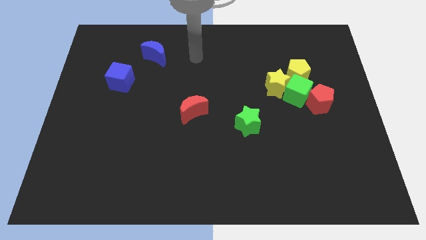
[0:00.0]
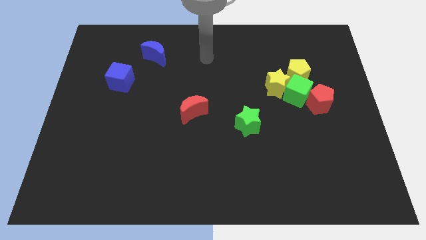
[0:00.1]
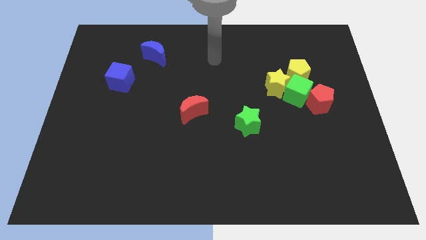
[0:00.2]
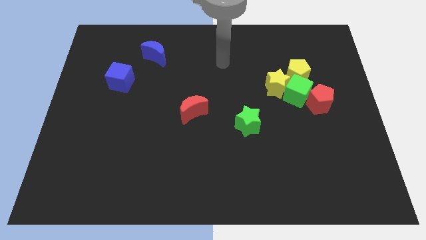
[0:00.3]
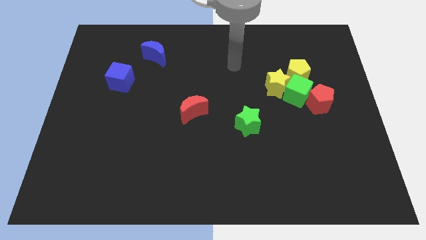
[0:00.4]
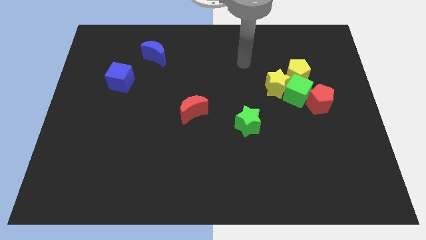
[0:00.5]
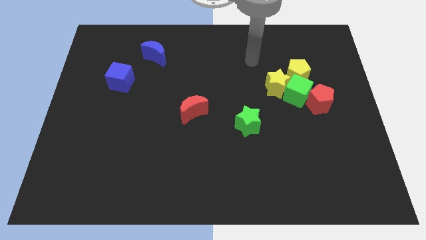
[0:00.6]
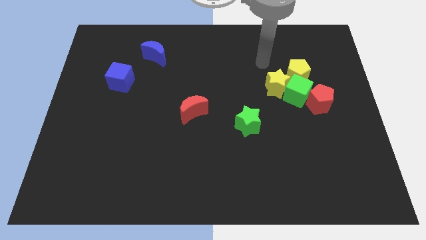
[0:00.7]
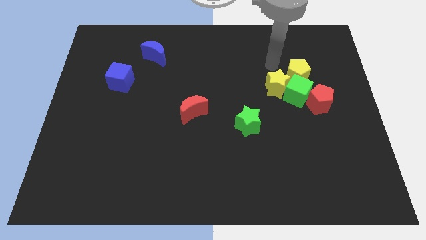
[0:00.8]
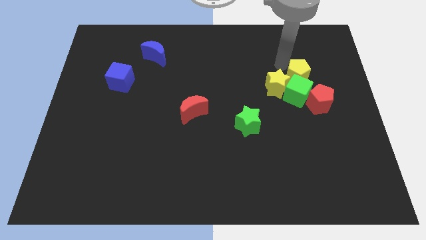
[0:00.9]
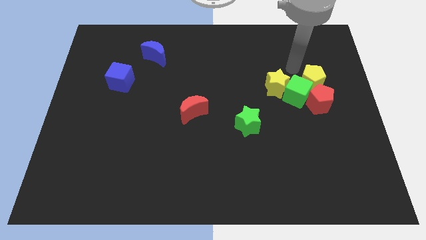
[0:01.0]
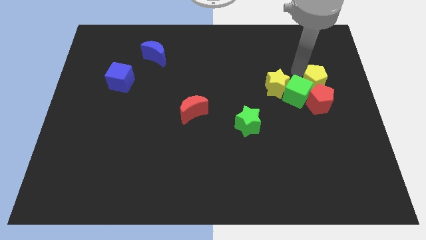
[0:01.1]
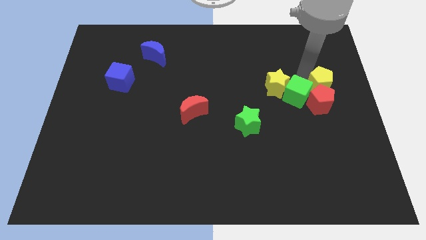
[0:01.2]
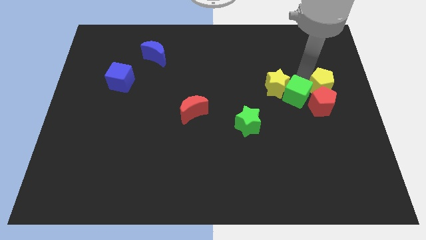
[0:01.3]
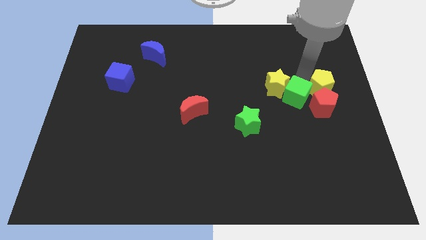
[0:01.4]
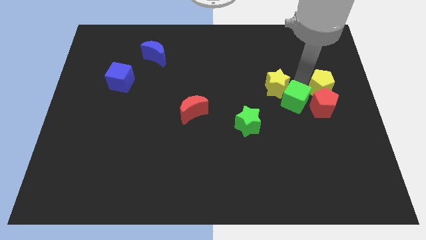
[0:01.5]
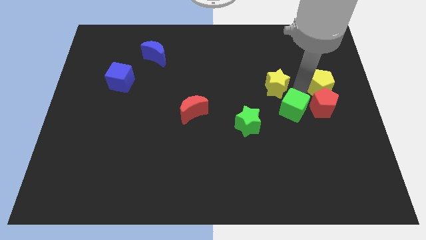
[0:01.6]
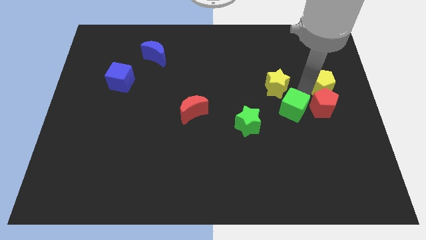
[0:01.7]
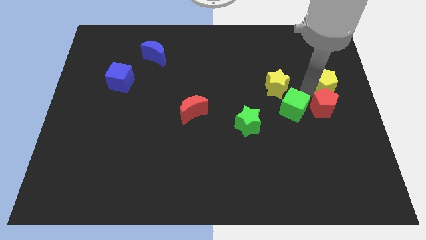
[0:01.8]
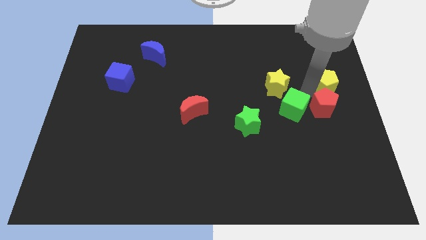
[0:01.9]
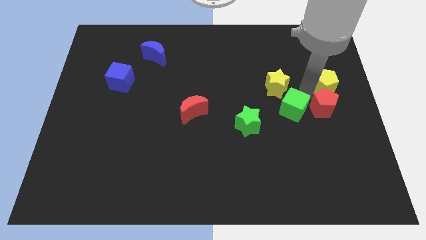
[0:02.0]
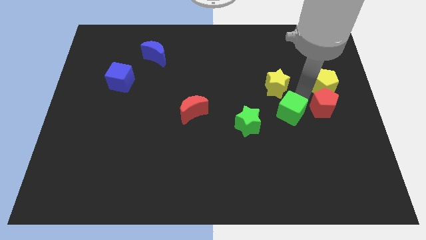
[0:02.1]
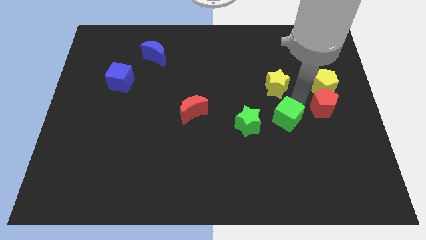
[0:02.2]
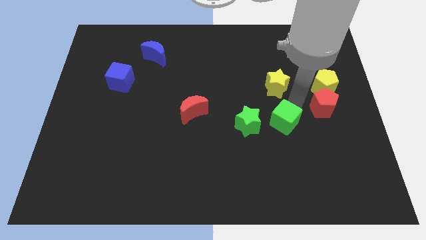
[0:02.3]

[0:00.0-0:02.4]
pull the green cube apart from the group

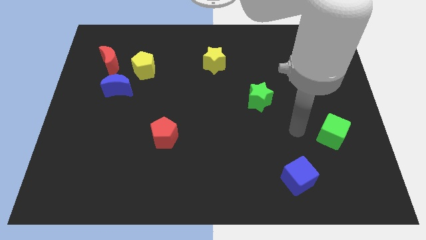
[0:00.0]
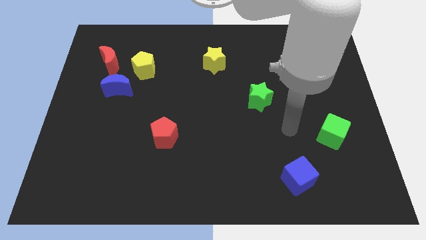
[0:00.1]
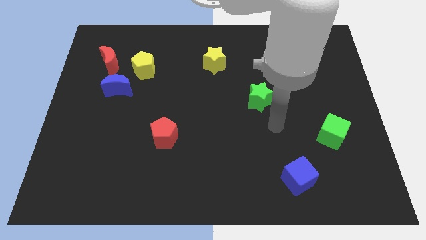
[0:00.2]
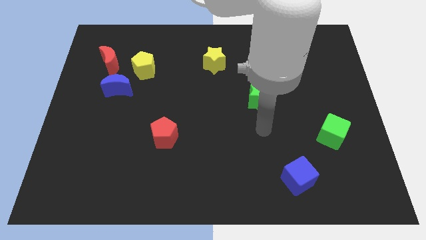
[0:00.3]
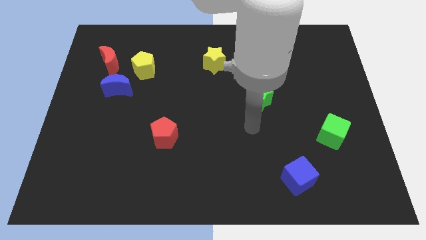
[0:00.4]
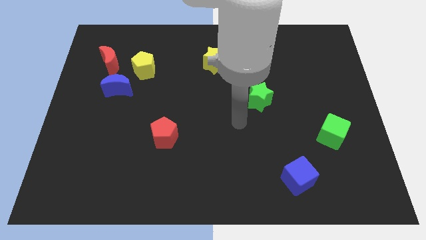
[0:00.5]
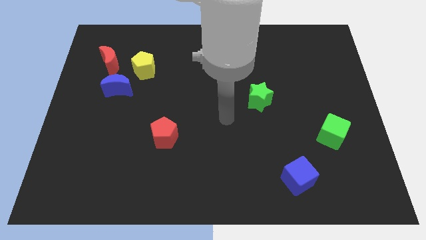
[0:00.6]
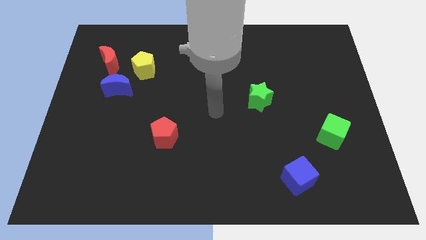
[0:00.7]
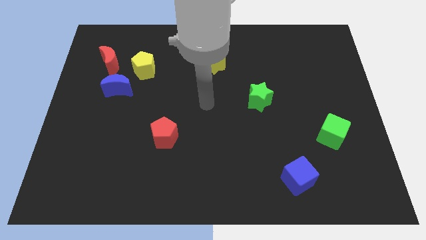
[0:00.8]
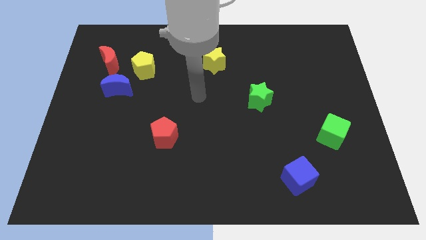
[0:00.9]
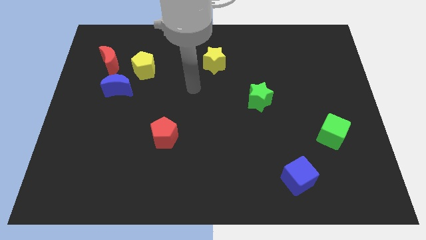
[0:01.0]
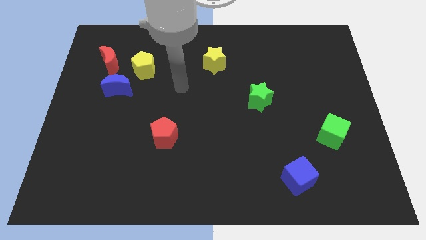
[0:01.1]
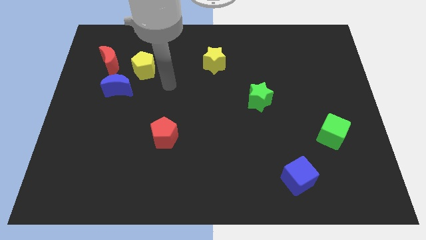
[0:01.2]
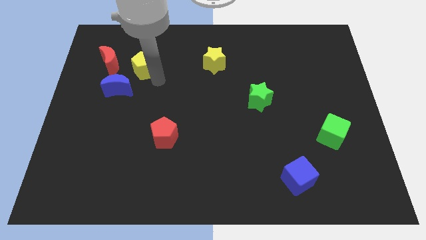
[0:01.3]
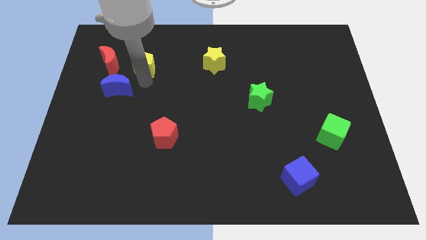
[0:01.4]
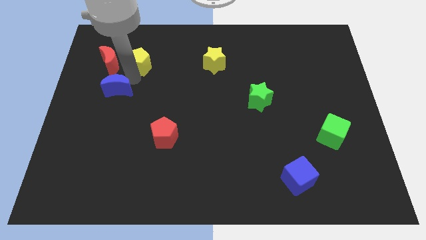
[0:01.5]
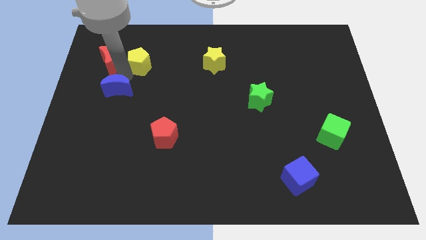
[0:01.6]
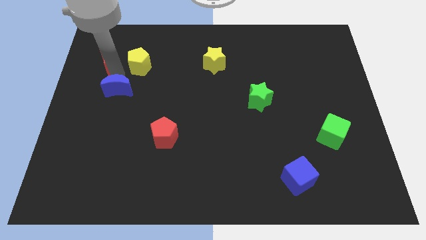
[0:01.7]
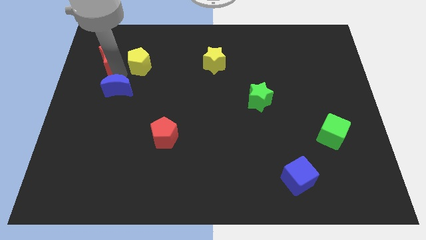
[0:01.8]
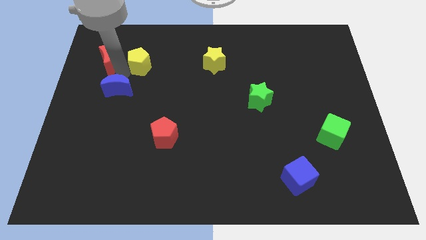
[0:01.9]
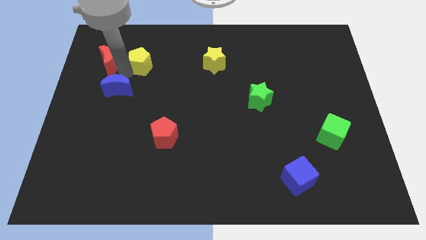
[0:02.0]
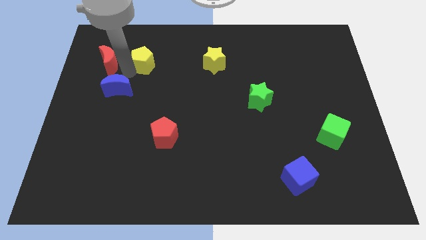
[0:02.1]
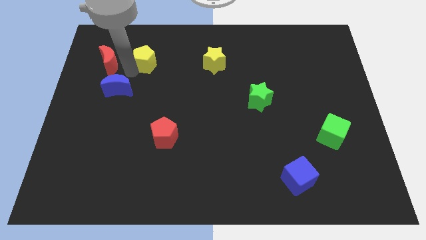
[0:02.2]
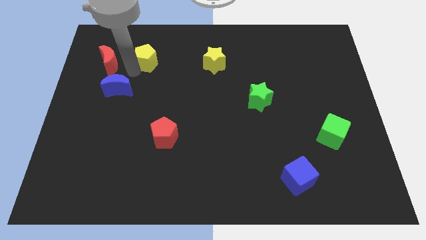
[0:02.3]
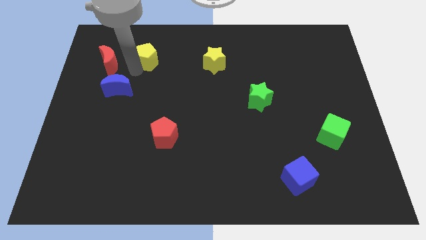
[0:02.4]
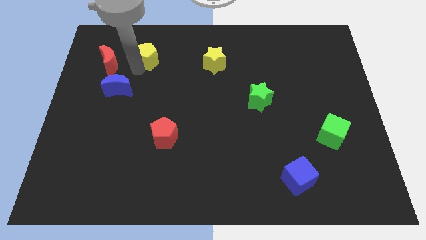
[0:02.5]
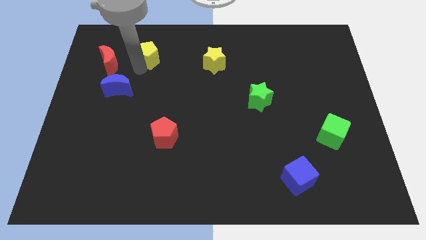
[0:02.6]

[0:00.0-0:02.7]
move the yellow pentagon away from the blue moon and red moon

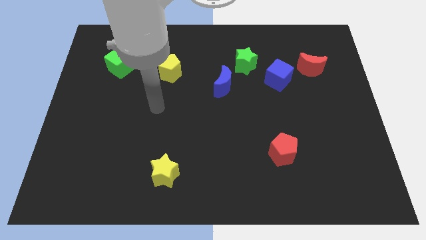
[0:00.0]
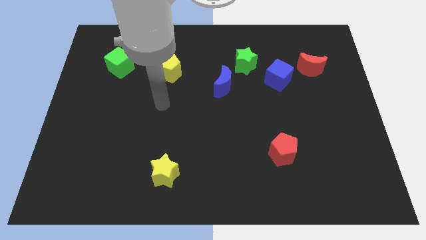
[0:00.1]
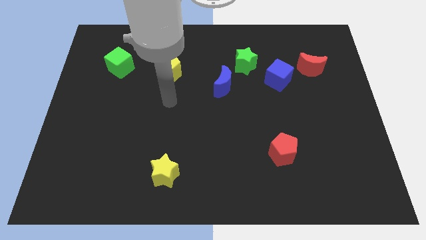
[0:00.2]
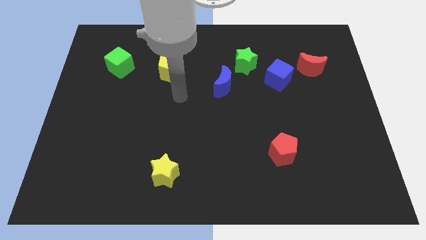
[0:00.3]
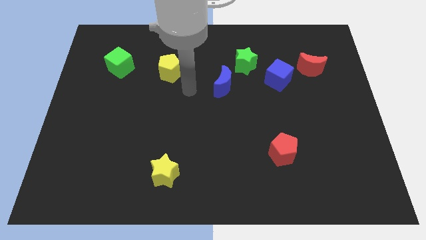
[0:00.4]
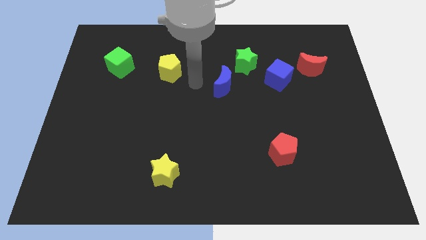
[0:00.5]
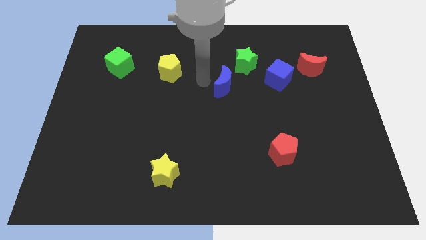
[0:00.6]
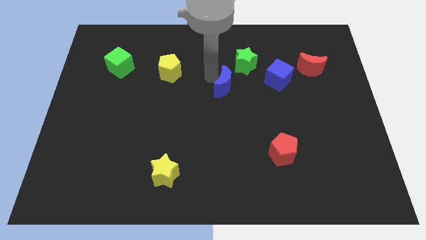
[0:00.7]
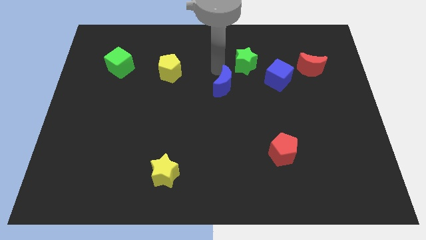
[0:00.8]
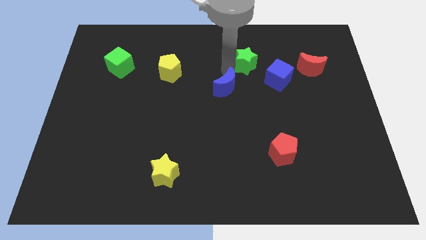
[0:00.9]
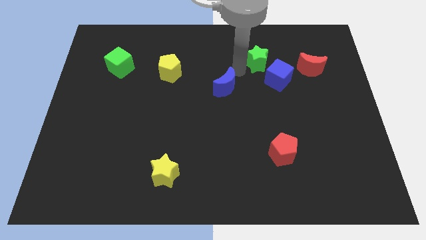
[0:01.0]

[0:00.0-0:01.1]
move the blue moon away from the green star

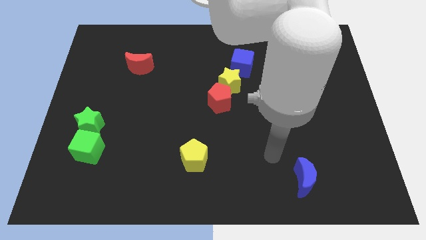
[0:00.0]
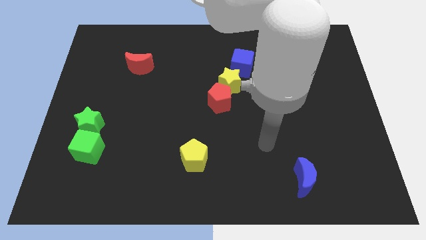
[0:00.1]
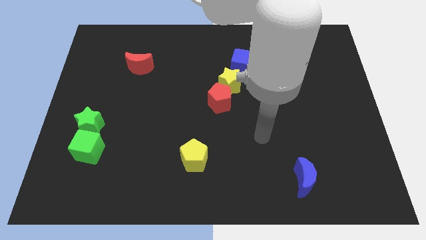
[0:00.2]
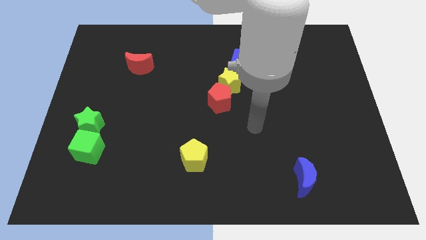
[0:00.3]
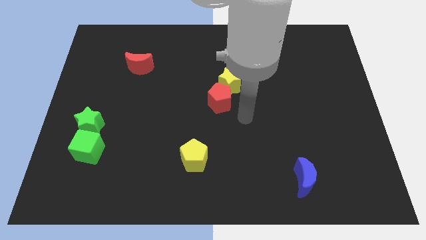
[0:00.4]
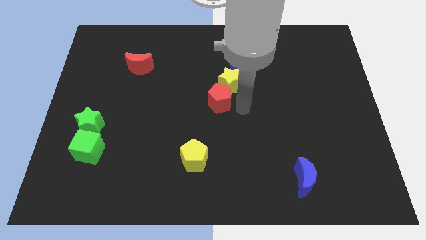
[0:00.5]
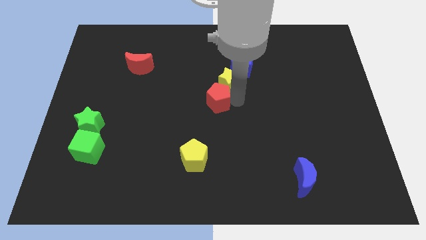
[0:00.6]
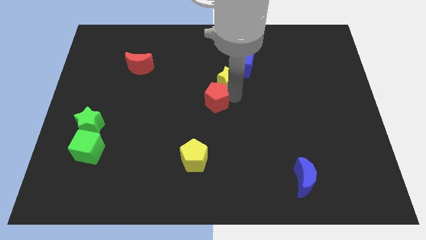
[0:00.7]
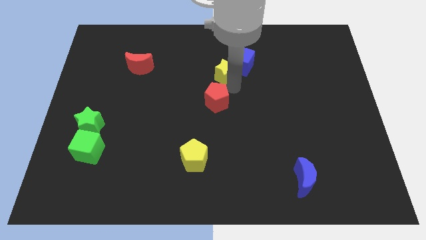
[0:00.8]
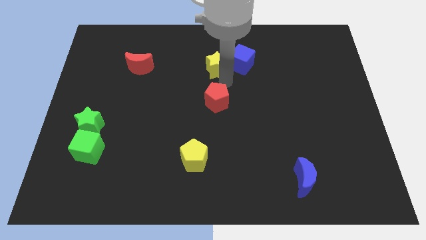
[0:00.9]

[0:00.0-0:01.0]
pull the red pentagon apart from the yellow star

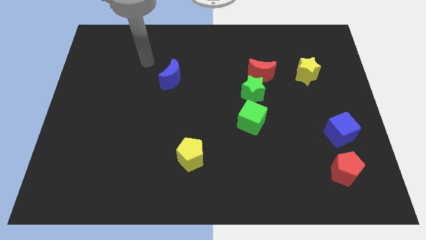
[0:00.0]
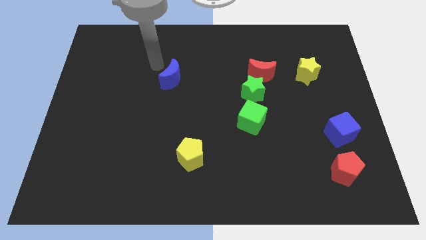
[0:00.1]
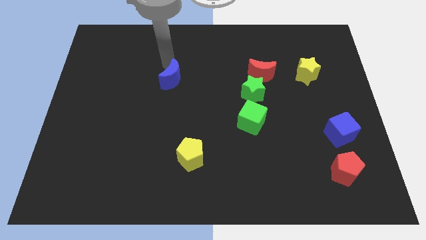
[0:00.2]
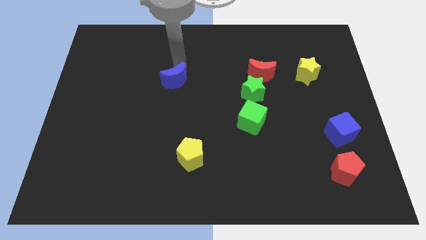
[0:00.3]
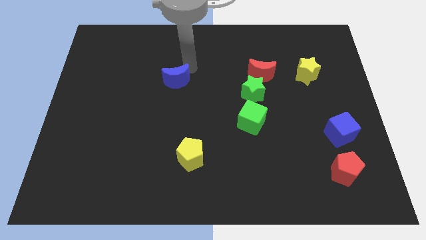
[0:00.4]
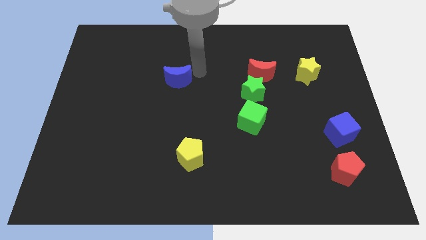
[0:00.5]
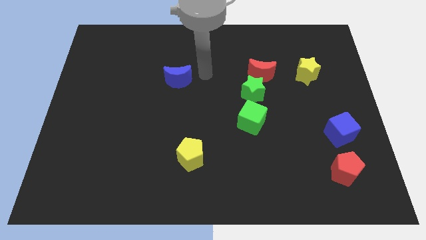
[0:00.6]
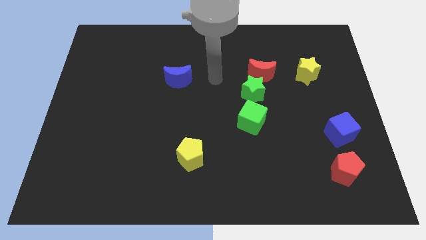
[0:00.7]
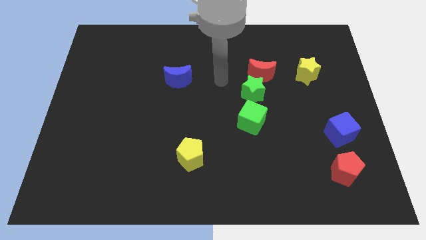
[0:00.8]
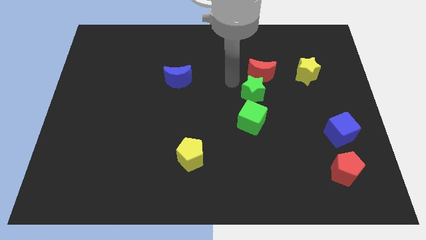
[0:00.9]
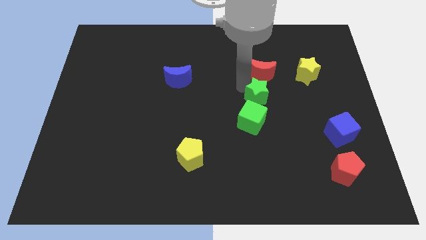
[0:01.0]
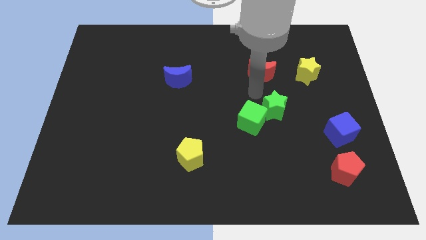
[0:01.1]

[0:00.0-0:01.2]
move the red moon away from the green star

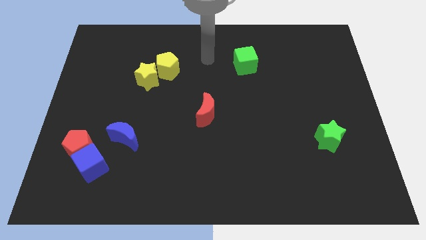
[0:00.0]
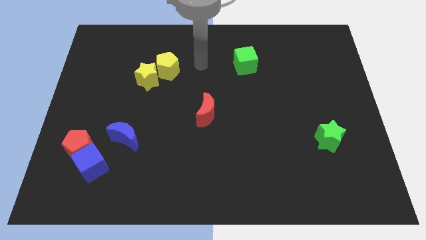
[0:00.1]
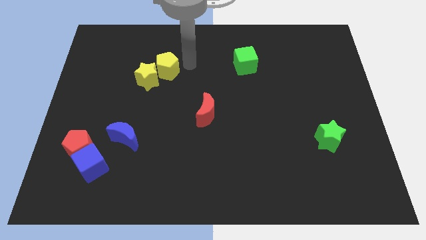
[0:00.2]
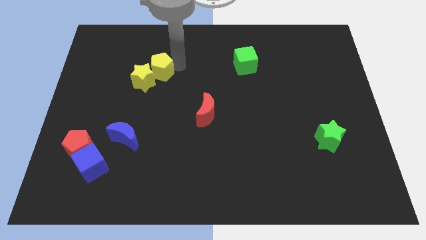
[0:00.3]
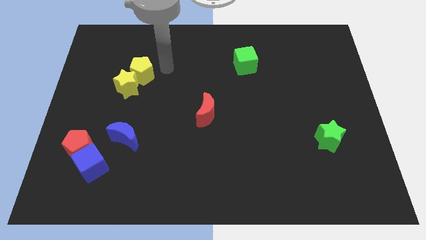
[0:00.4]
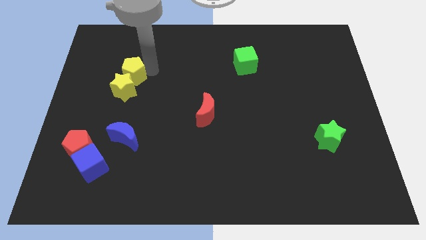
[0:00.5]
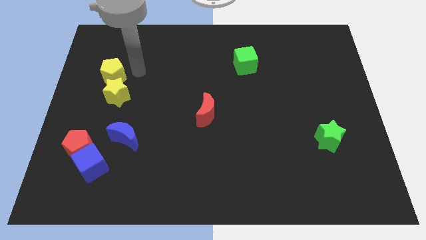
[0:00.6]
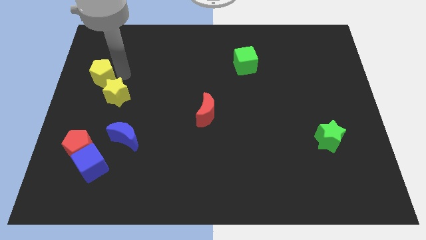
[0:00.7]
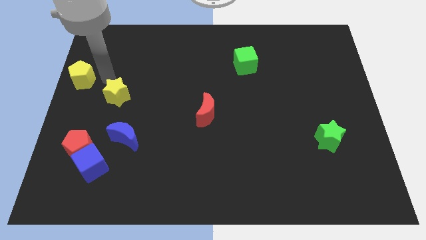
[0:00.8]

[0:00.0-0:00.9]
separate the yellow star from the yellow pentagon
